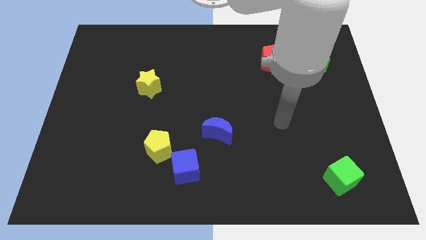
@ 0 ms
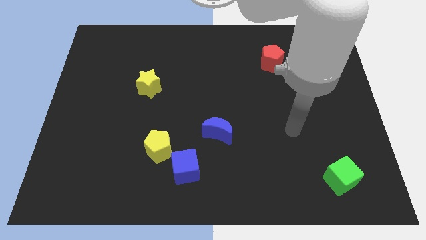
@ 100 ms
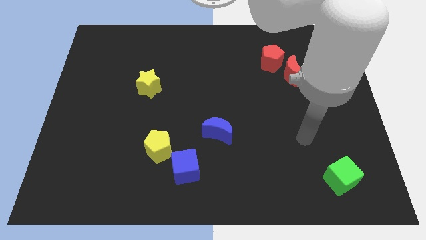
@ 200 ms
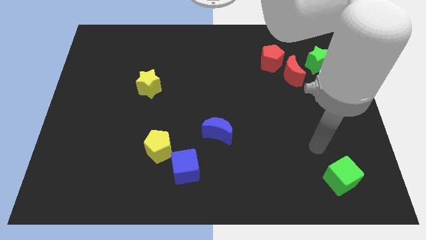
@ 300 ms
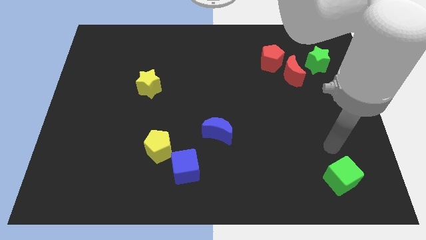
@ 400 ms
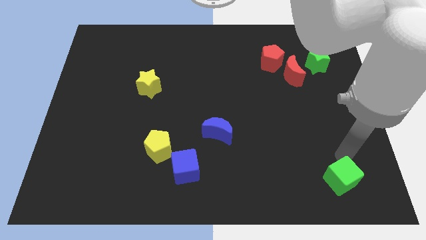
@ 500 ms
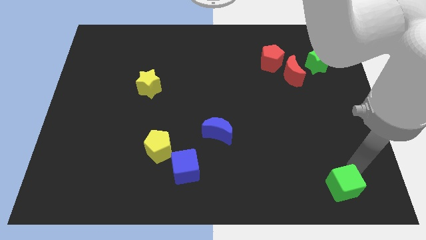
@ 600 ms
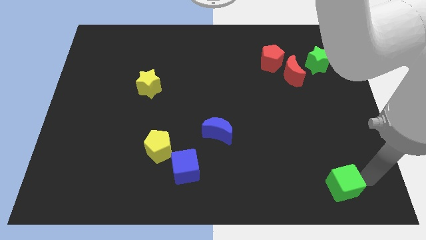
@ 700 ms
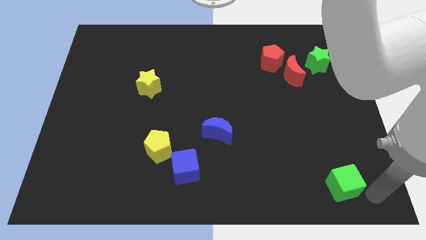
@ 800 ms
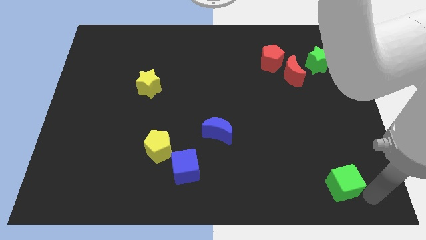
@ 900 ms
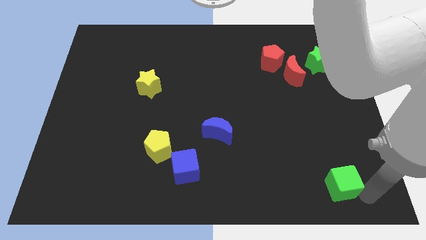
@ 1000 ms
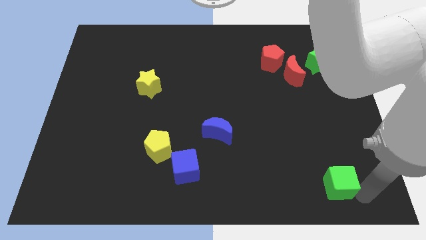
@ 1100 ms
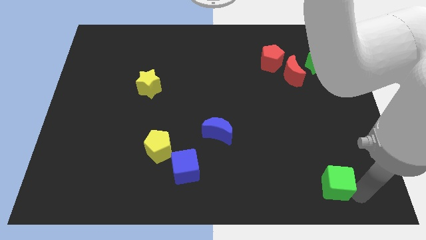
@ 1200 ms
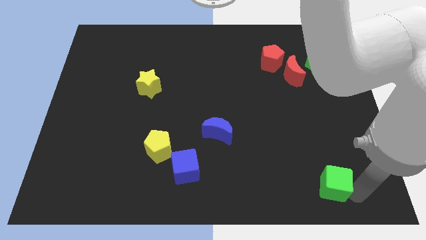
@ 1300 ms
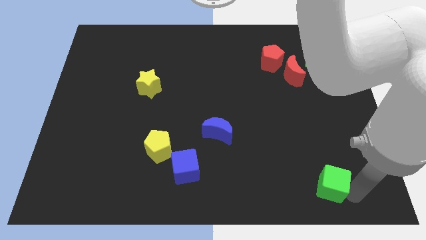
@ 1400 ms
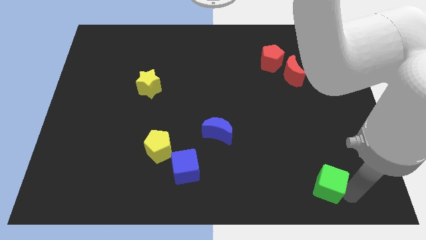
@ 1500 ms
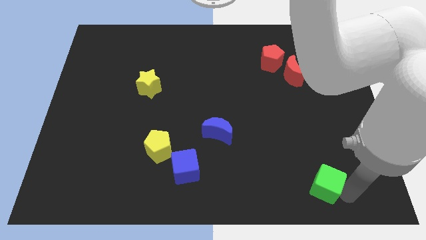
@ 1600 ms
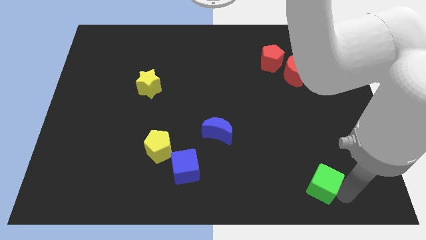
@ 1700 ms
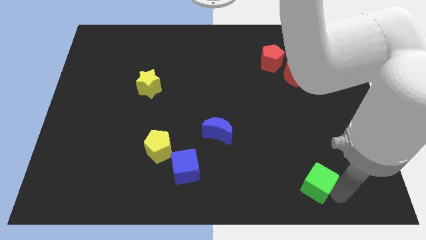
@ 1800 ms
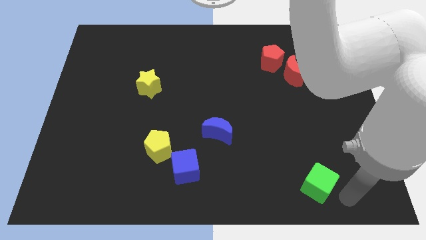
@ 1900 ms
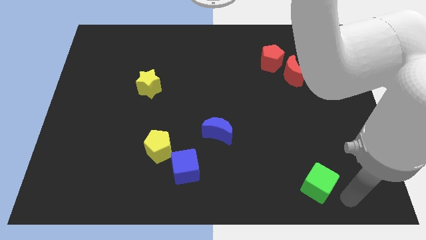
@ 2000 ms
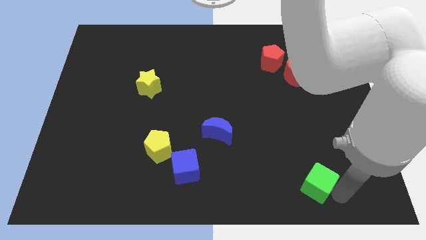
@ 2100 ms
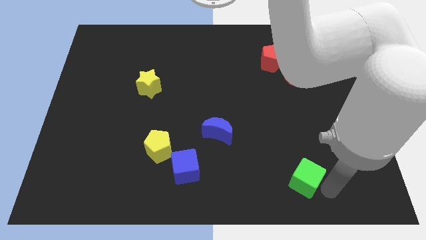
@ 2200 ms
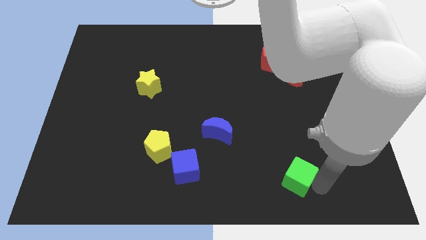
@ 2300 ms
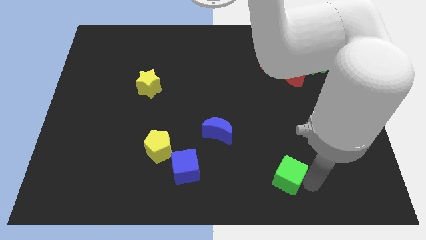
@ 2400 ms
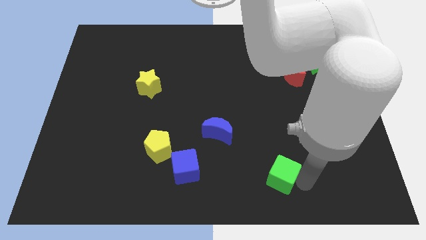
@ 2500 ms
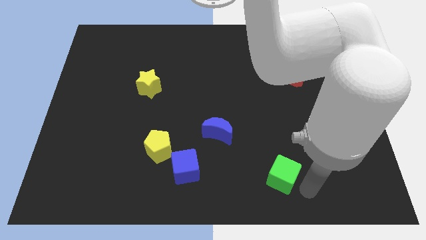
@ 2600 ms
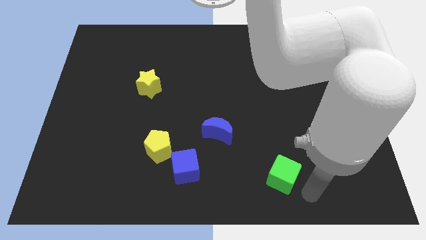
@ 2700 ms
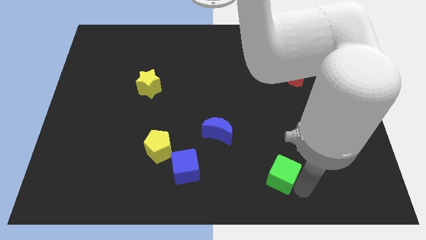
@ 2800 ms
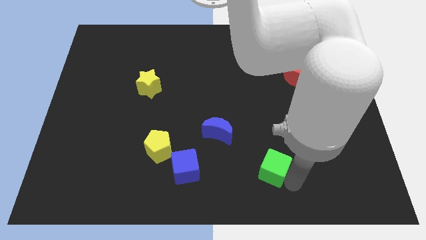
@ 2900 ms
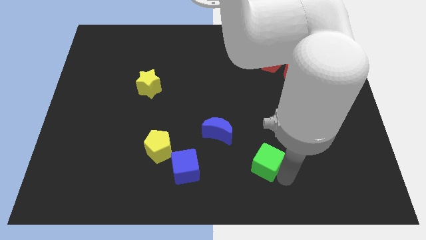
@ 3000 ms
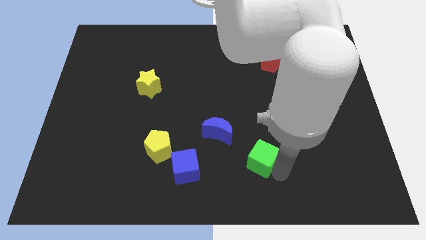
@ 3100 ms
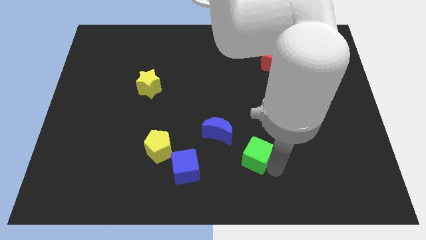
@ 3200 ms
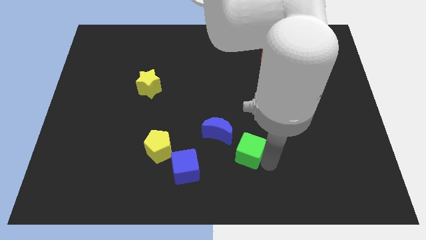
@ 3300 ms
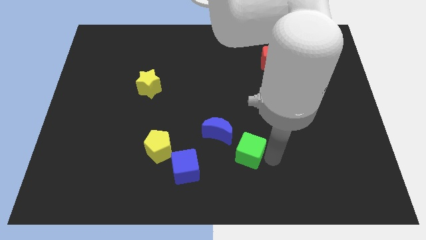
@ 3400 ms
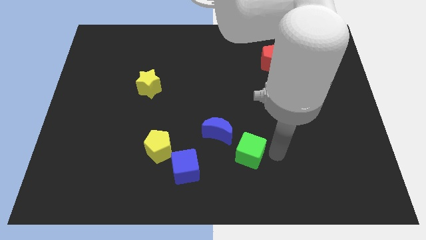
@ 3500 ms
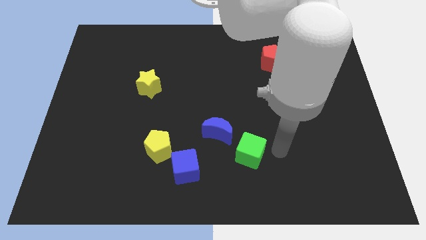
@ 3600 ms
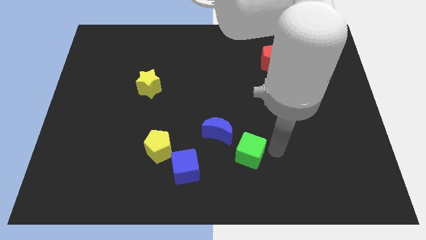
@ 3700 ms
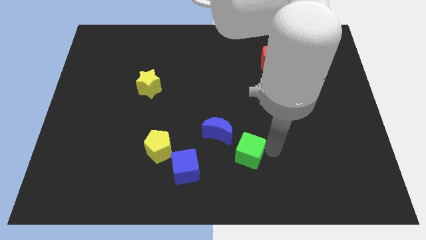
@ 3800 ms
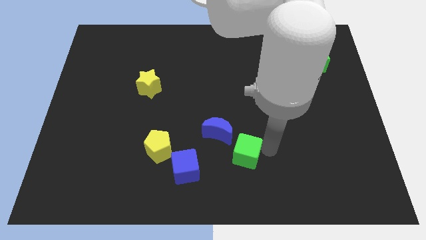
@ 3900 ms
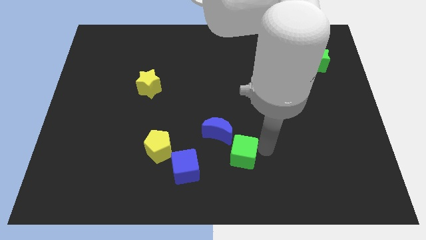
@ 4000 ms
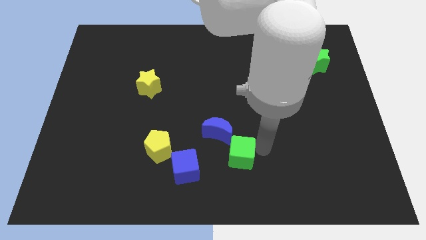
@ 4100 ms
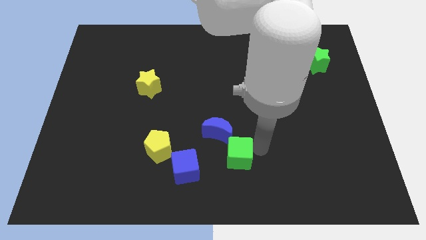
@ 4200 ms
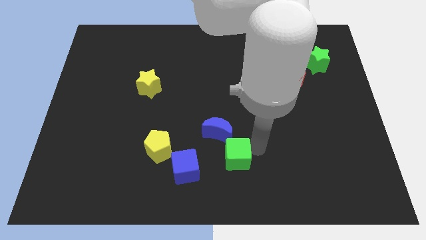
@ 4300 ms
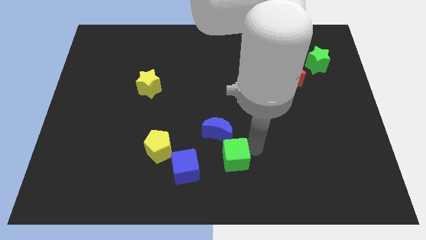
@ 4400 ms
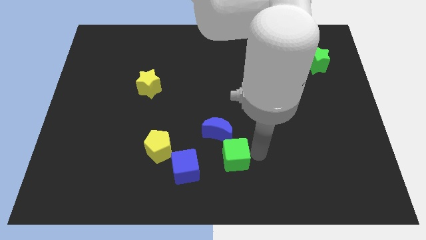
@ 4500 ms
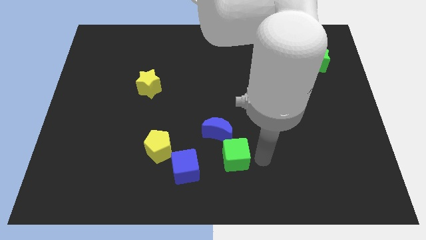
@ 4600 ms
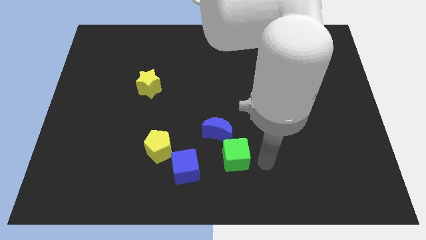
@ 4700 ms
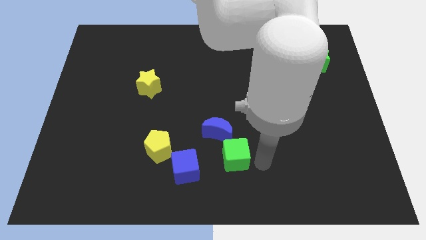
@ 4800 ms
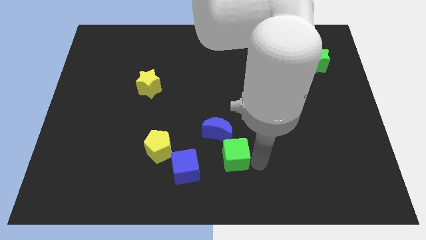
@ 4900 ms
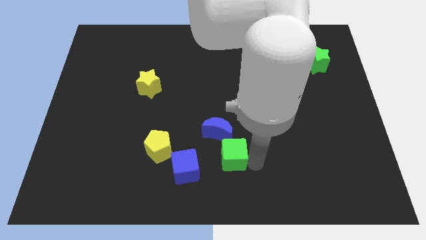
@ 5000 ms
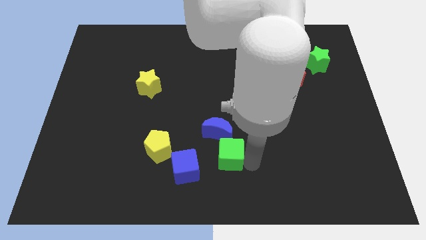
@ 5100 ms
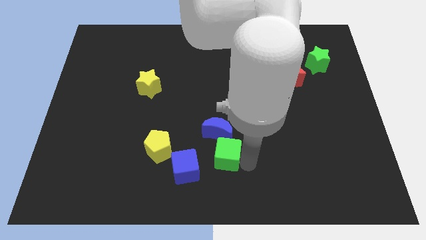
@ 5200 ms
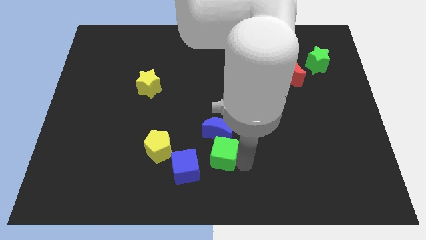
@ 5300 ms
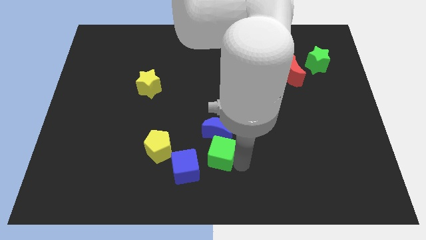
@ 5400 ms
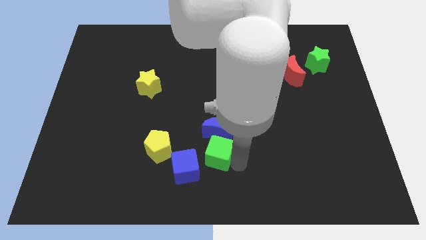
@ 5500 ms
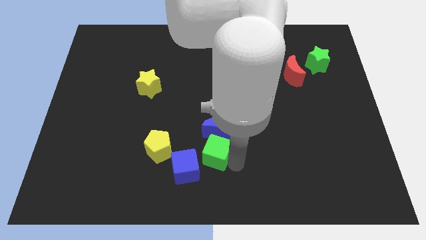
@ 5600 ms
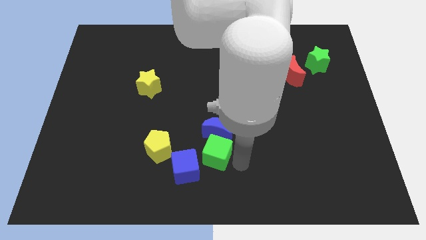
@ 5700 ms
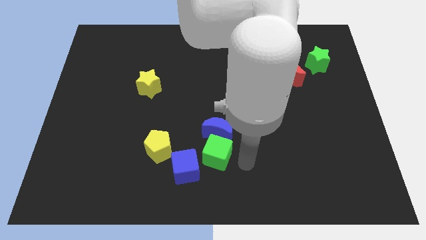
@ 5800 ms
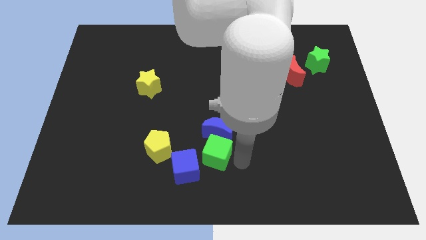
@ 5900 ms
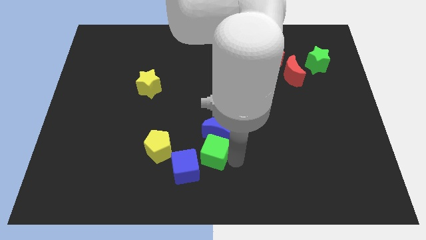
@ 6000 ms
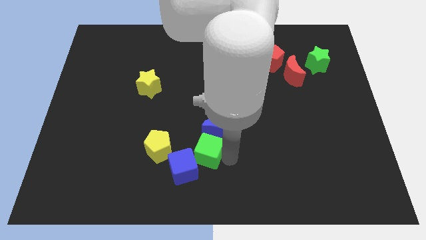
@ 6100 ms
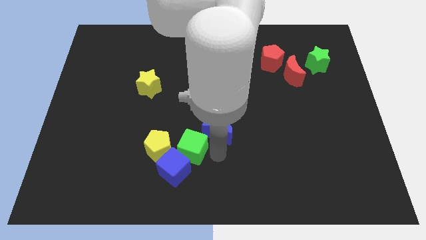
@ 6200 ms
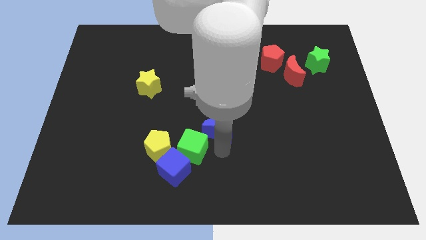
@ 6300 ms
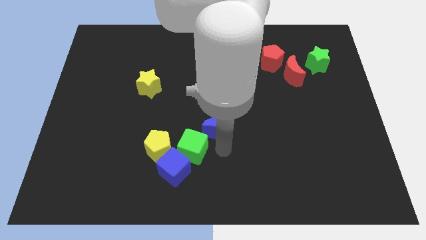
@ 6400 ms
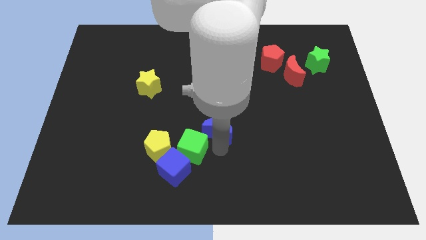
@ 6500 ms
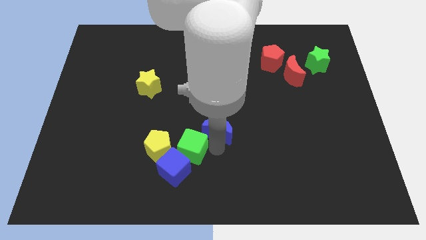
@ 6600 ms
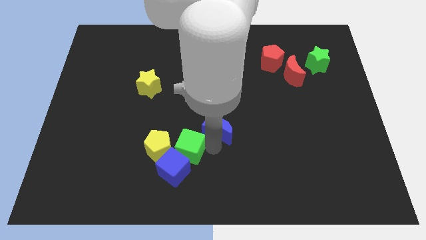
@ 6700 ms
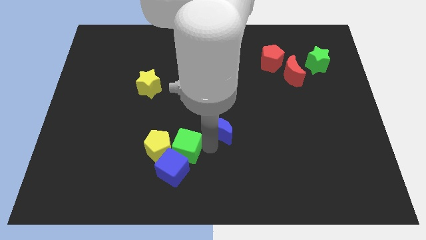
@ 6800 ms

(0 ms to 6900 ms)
push the green cube to the yellow pentagon
